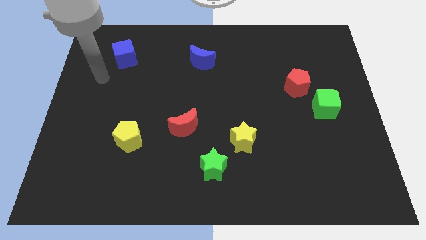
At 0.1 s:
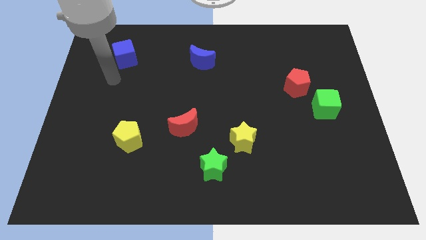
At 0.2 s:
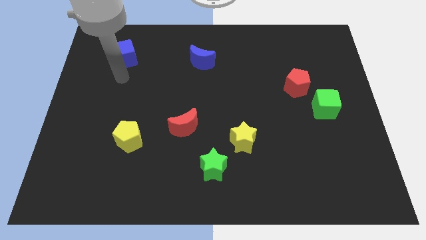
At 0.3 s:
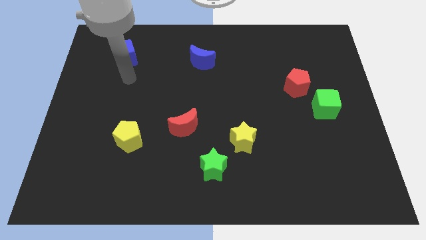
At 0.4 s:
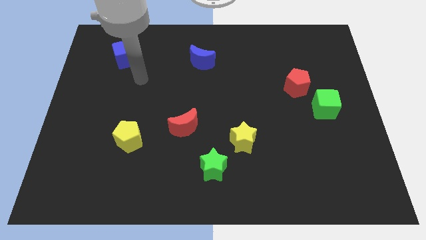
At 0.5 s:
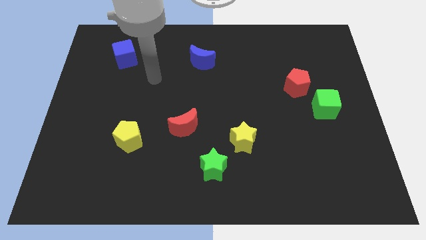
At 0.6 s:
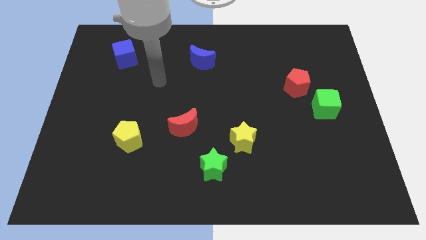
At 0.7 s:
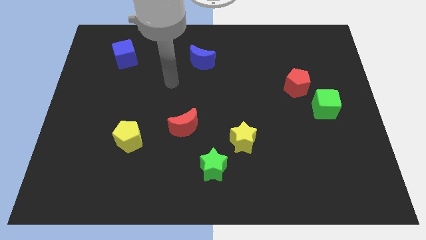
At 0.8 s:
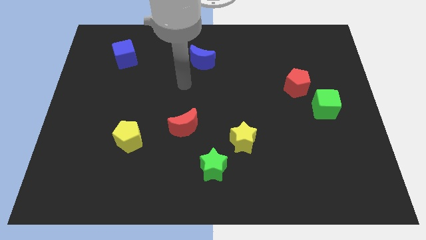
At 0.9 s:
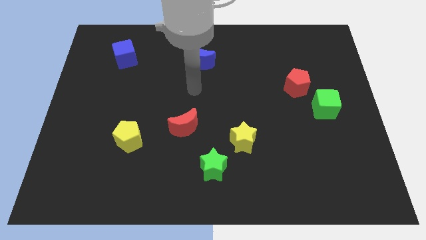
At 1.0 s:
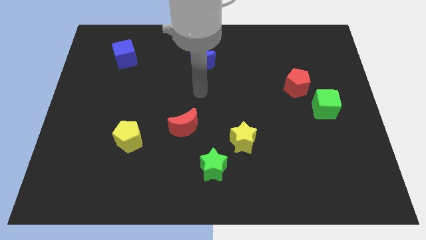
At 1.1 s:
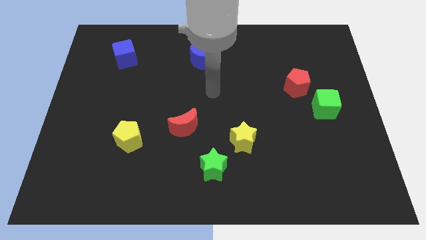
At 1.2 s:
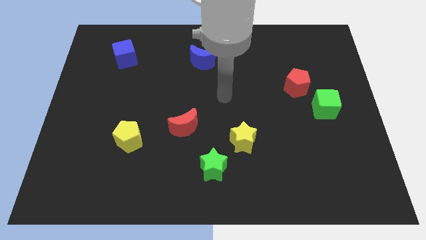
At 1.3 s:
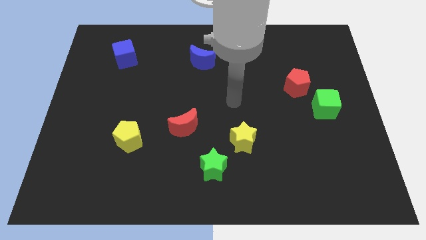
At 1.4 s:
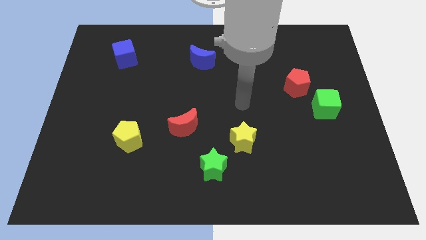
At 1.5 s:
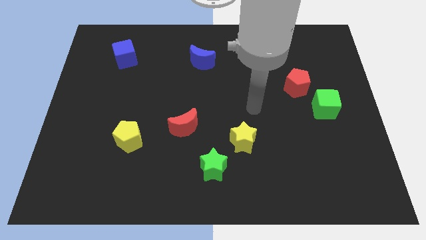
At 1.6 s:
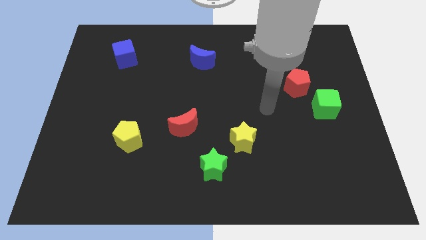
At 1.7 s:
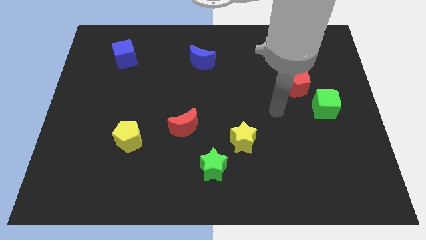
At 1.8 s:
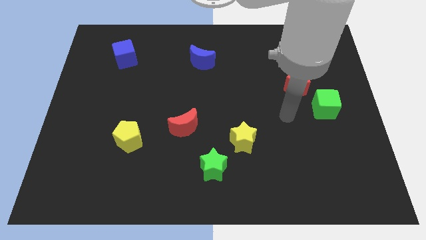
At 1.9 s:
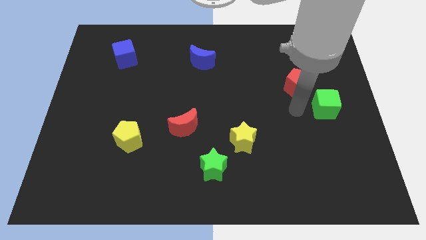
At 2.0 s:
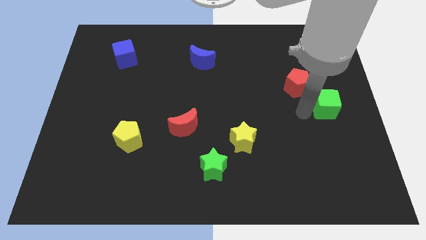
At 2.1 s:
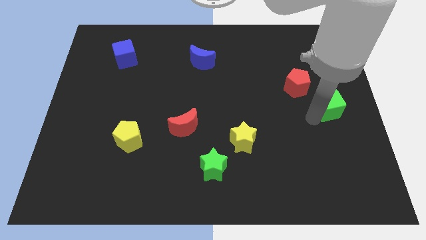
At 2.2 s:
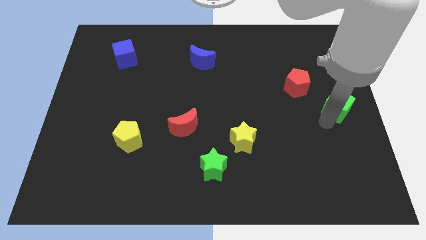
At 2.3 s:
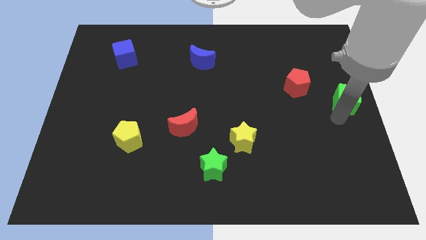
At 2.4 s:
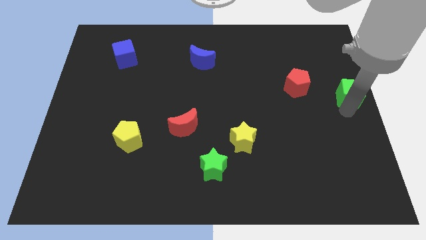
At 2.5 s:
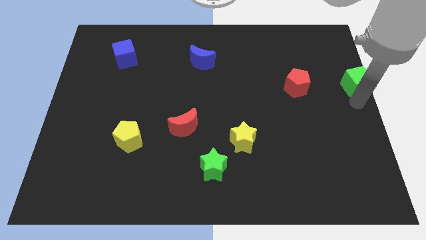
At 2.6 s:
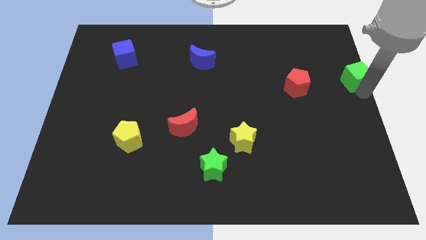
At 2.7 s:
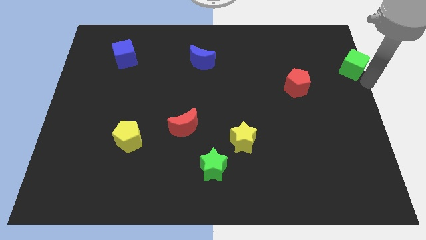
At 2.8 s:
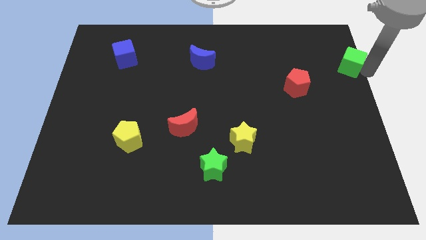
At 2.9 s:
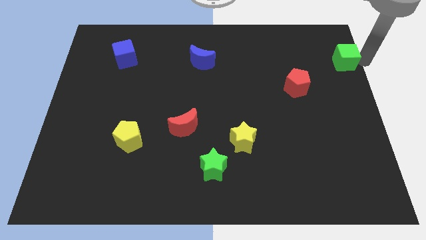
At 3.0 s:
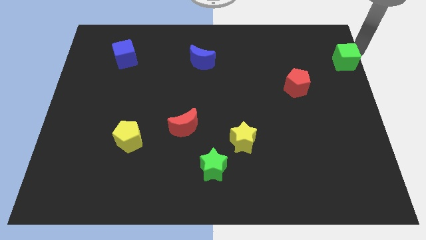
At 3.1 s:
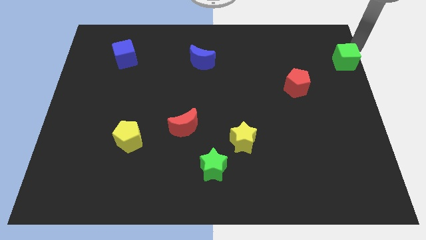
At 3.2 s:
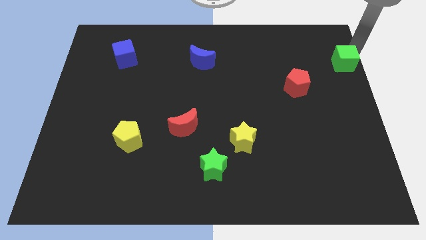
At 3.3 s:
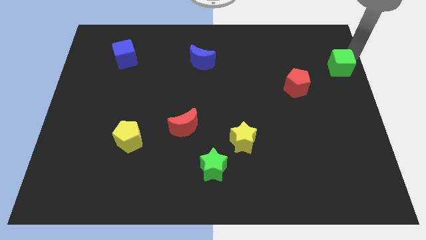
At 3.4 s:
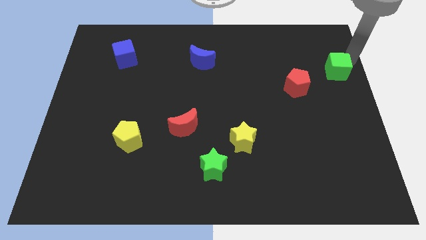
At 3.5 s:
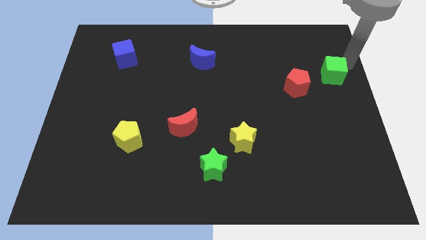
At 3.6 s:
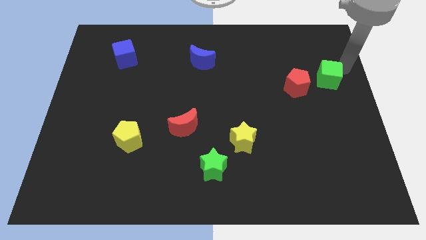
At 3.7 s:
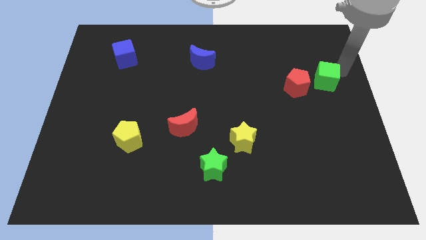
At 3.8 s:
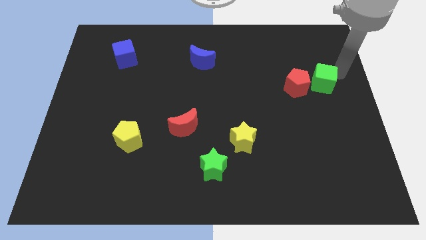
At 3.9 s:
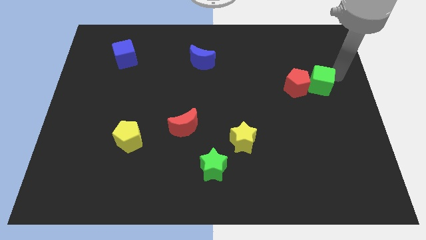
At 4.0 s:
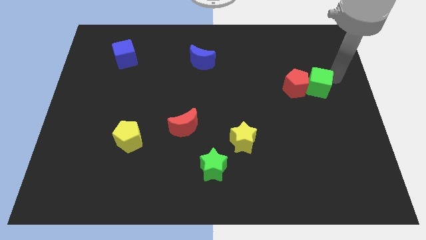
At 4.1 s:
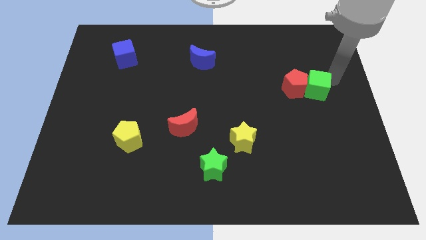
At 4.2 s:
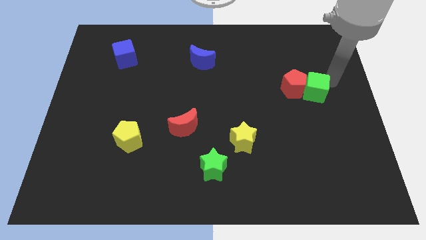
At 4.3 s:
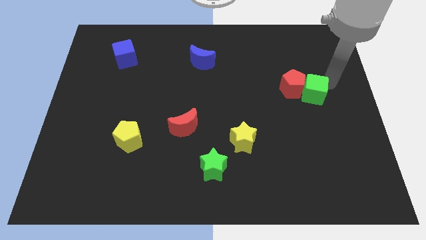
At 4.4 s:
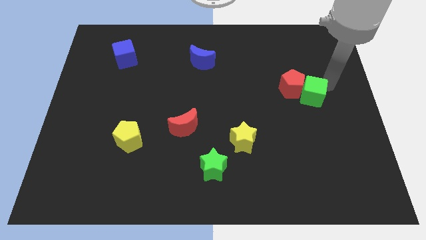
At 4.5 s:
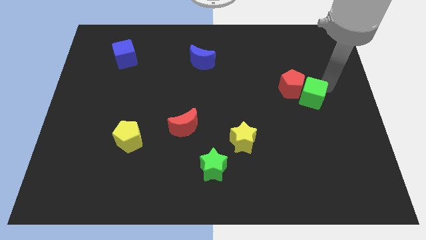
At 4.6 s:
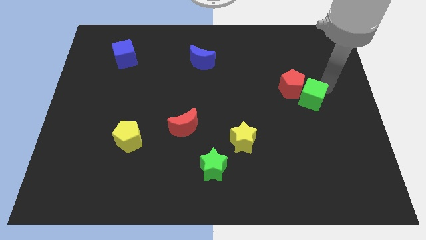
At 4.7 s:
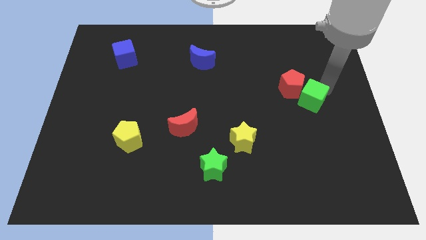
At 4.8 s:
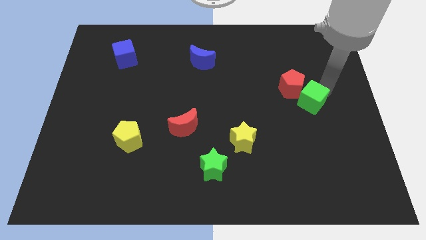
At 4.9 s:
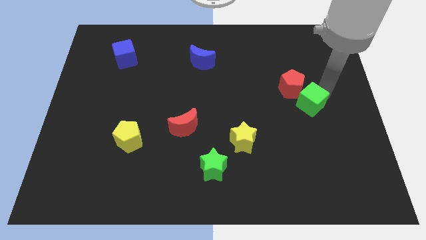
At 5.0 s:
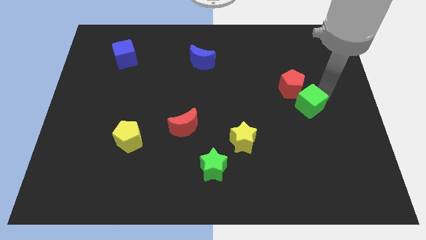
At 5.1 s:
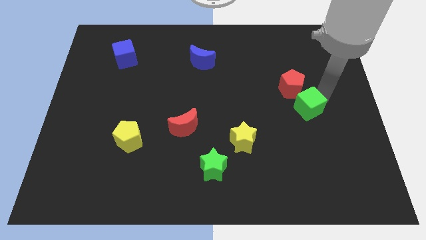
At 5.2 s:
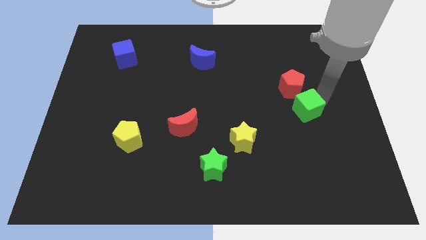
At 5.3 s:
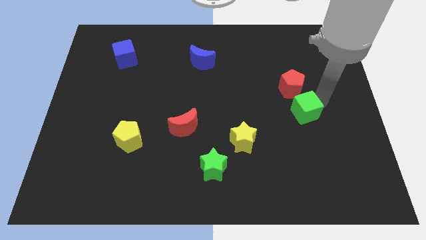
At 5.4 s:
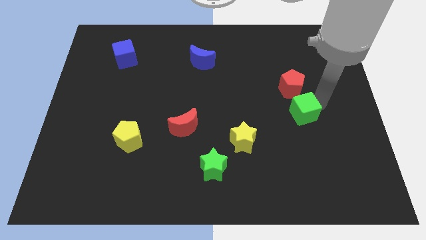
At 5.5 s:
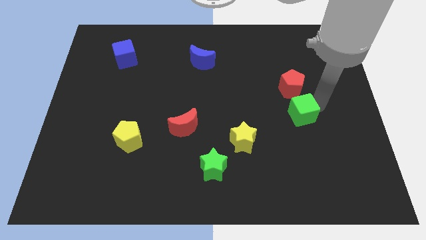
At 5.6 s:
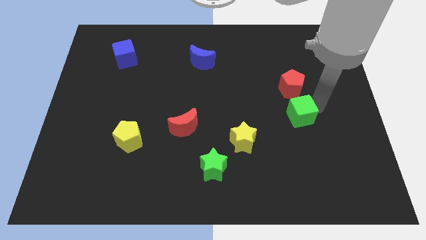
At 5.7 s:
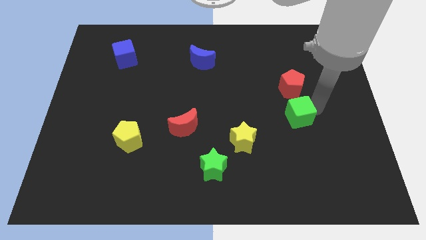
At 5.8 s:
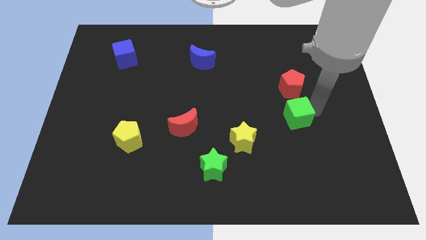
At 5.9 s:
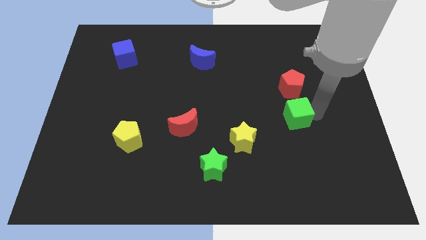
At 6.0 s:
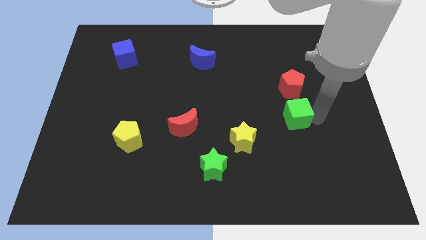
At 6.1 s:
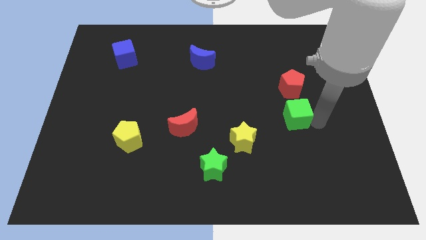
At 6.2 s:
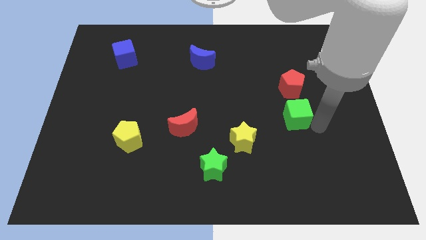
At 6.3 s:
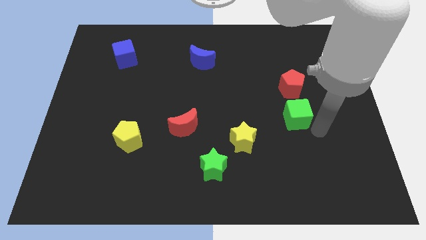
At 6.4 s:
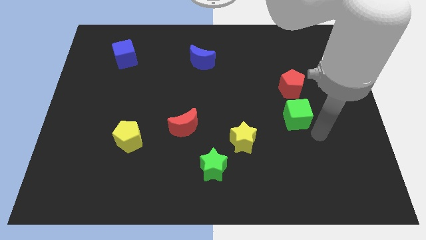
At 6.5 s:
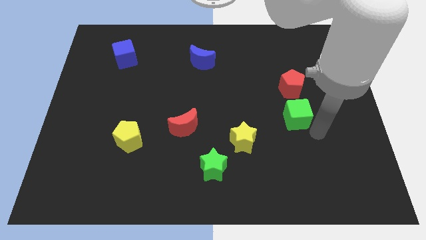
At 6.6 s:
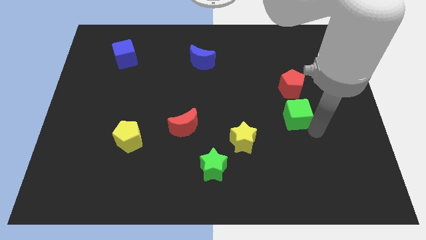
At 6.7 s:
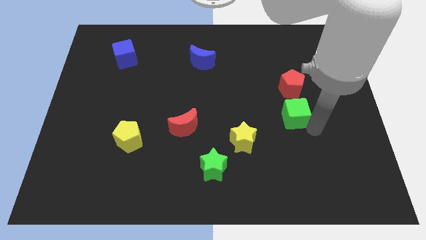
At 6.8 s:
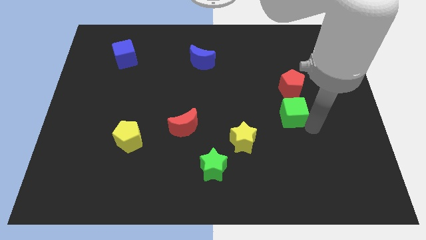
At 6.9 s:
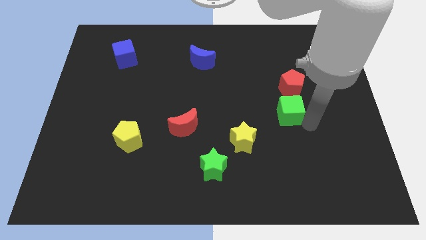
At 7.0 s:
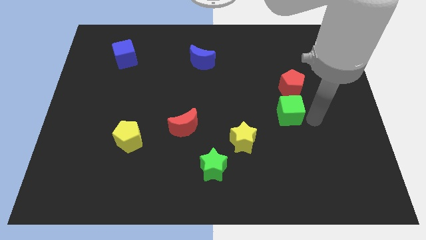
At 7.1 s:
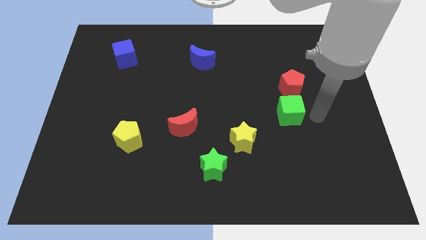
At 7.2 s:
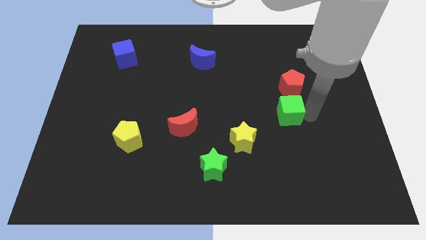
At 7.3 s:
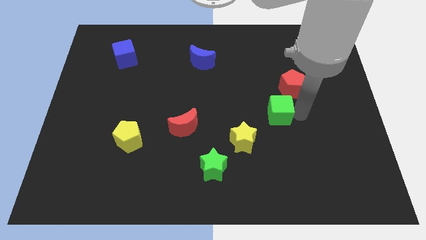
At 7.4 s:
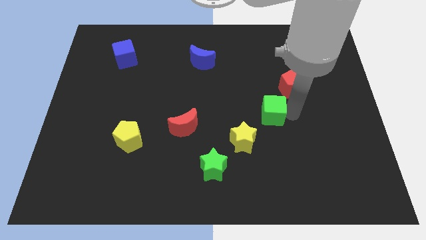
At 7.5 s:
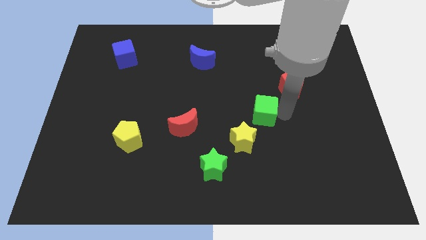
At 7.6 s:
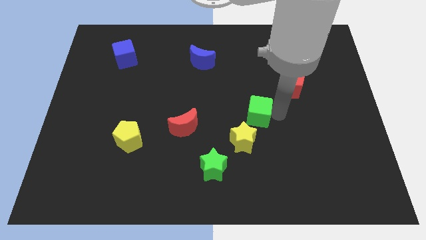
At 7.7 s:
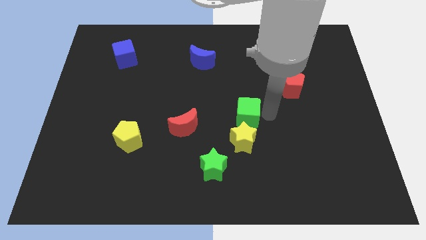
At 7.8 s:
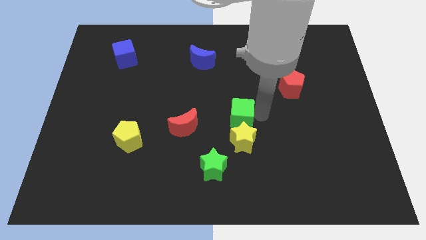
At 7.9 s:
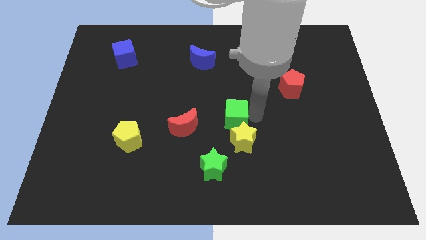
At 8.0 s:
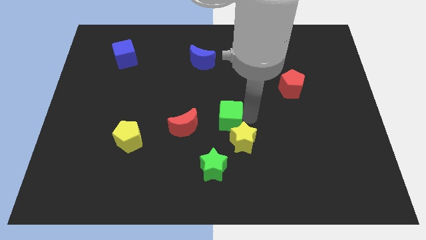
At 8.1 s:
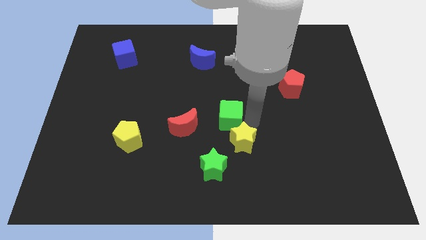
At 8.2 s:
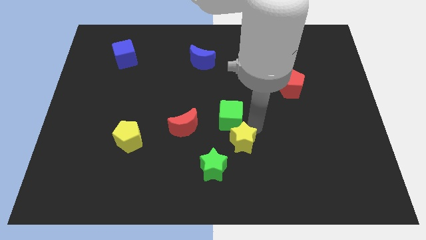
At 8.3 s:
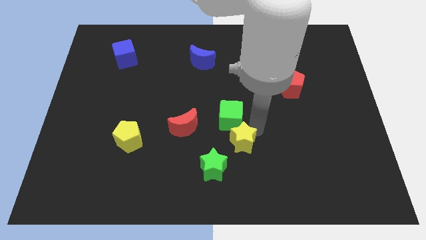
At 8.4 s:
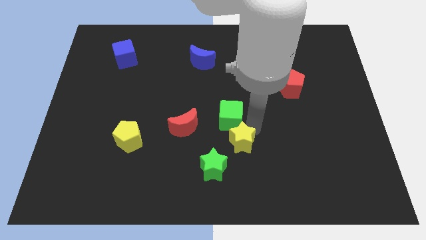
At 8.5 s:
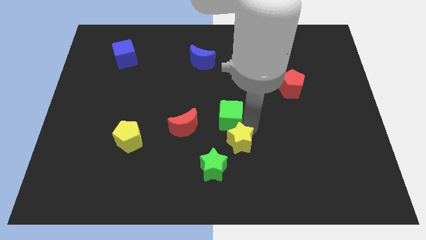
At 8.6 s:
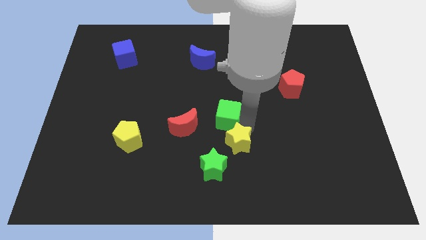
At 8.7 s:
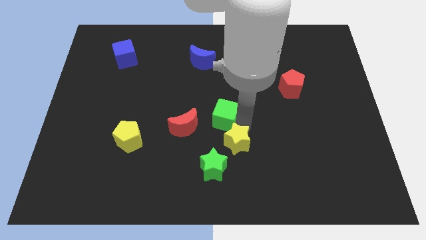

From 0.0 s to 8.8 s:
push the green cube to the top right side of the red moon
